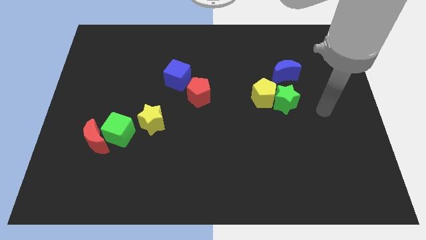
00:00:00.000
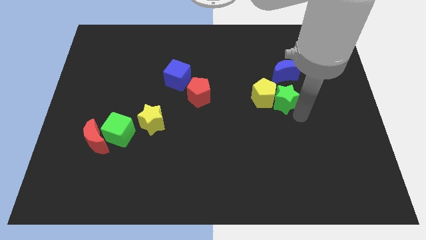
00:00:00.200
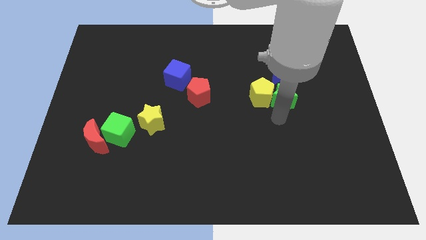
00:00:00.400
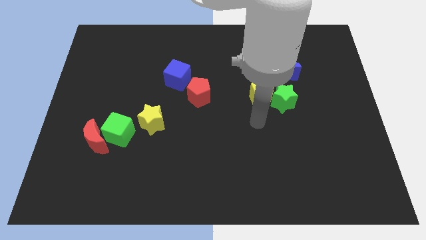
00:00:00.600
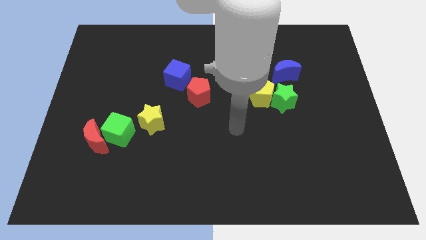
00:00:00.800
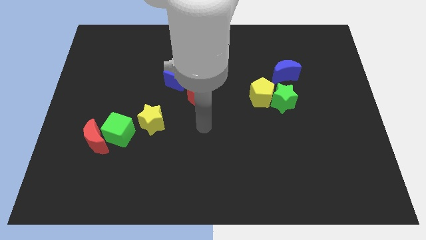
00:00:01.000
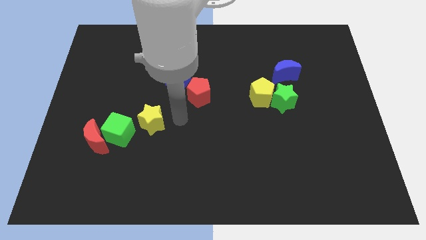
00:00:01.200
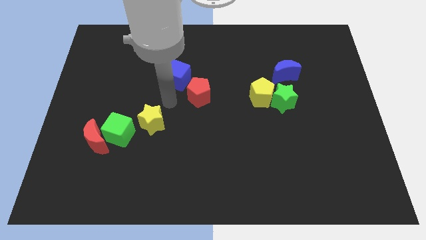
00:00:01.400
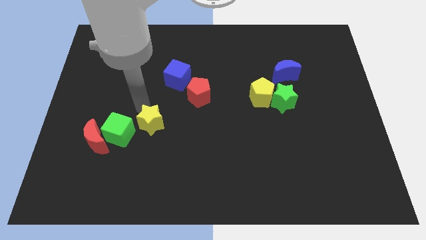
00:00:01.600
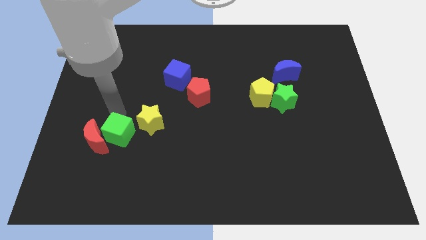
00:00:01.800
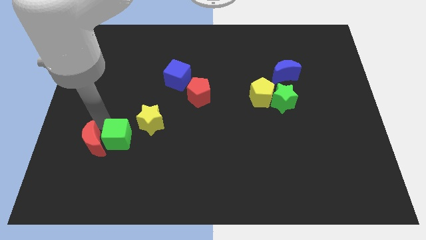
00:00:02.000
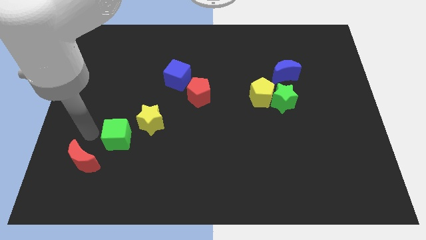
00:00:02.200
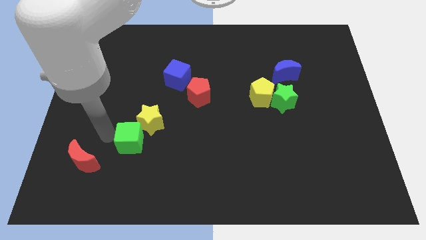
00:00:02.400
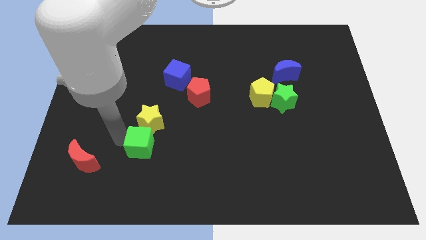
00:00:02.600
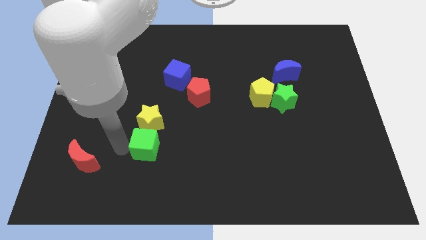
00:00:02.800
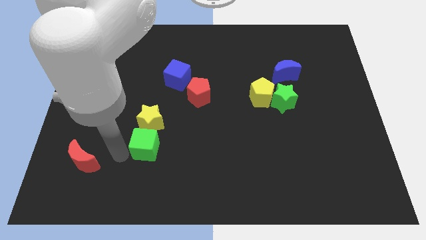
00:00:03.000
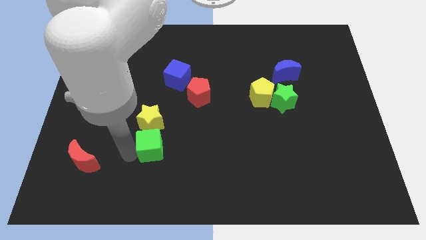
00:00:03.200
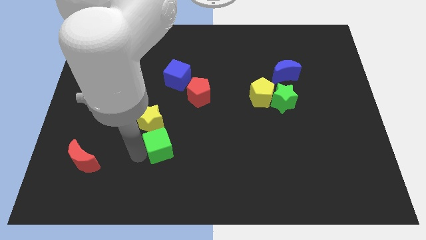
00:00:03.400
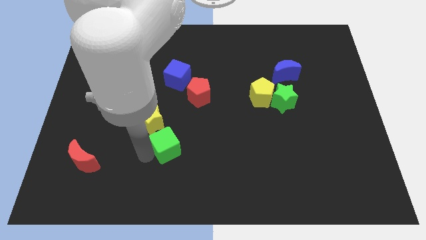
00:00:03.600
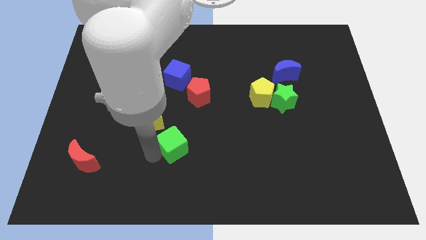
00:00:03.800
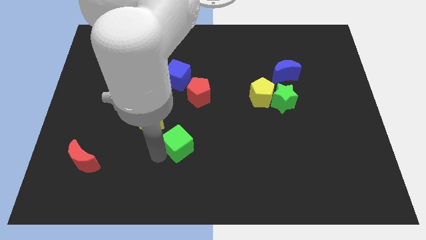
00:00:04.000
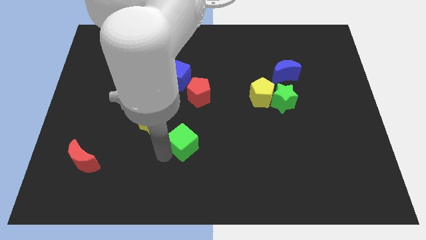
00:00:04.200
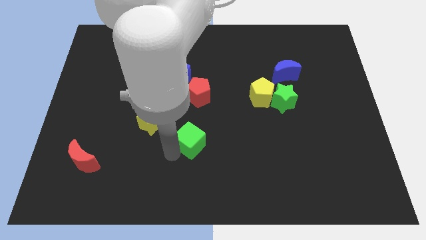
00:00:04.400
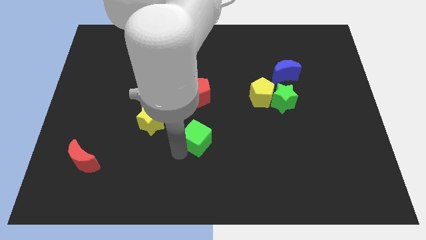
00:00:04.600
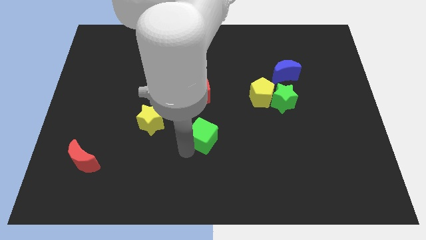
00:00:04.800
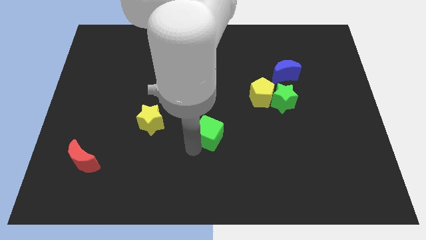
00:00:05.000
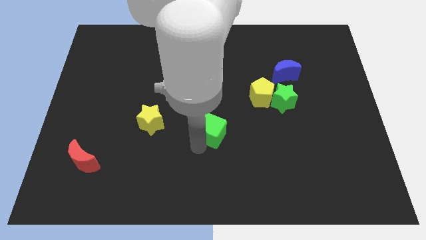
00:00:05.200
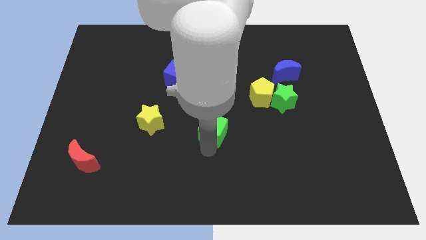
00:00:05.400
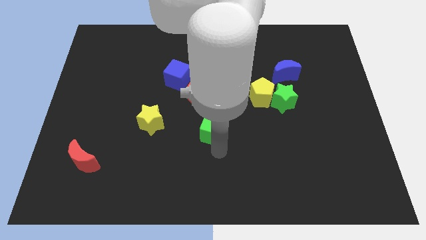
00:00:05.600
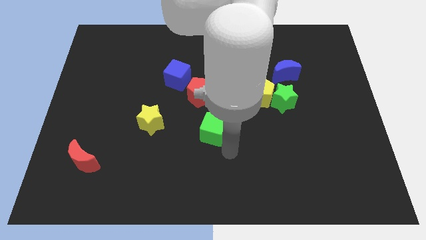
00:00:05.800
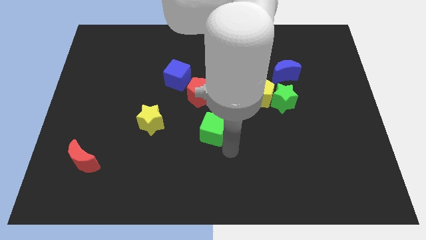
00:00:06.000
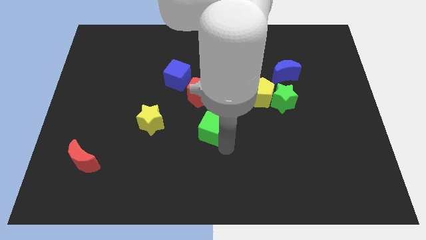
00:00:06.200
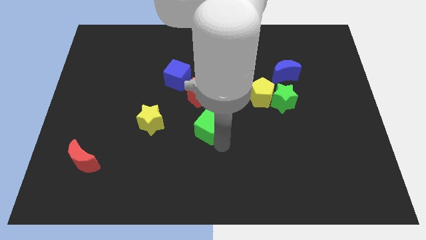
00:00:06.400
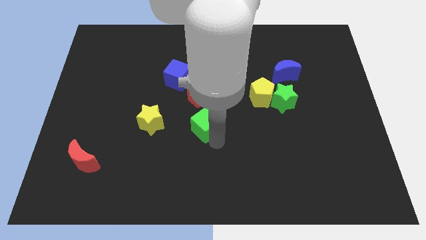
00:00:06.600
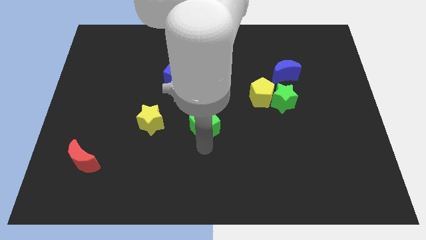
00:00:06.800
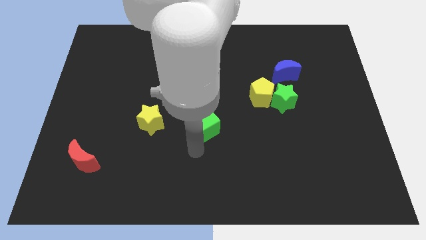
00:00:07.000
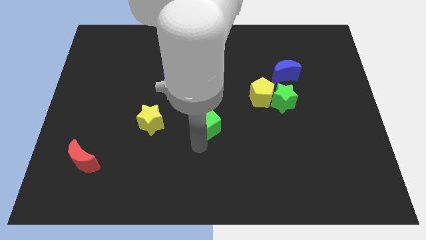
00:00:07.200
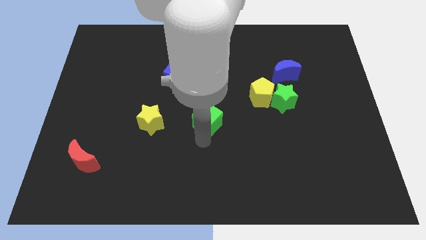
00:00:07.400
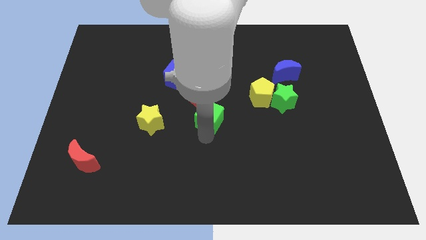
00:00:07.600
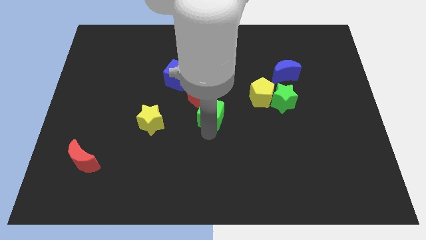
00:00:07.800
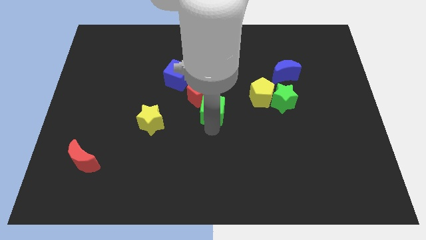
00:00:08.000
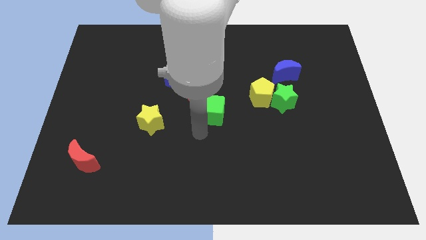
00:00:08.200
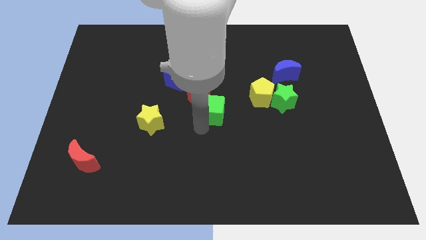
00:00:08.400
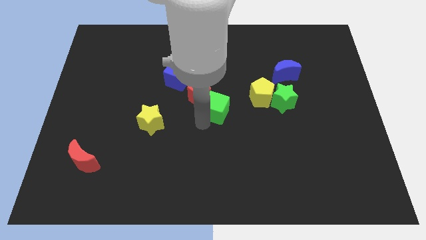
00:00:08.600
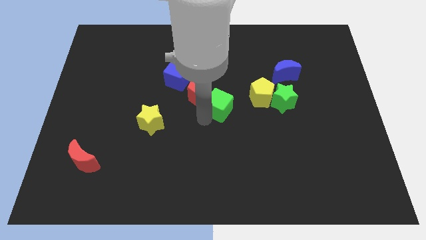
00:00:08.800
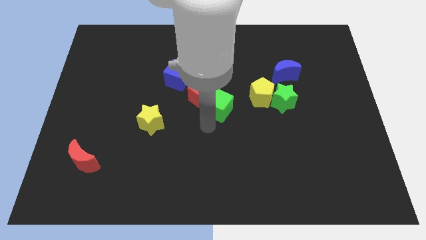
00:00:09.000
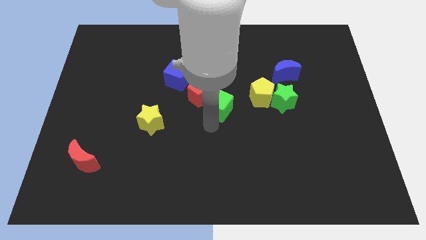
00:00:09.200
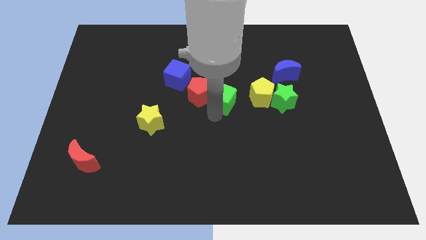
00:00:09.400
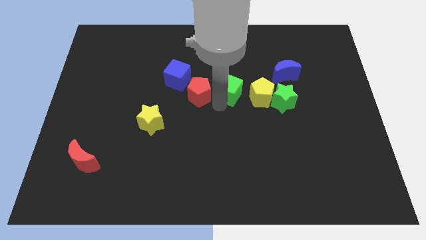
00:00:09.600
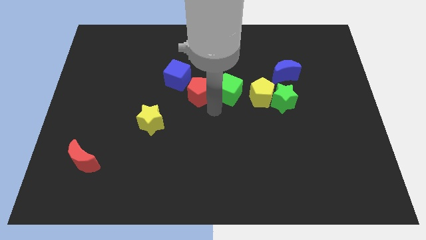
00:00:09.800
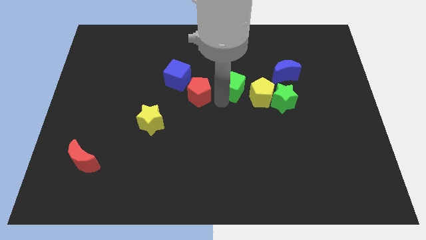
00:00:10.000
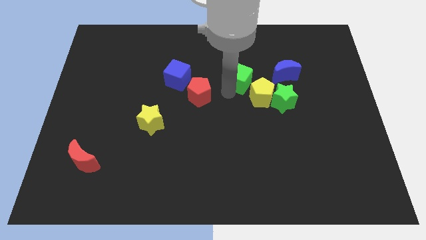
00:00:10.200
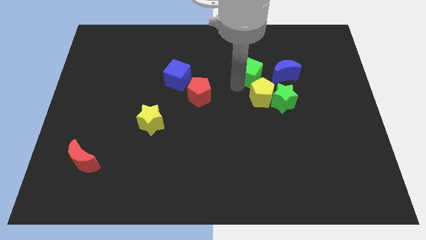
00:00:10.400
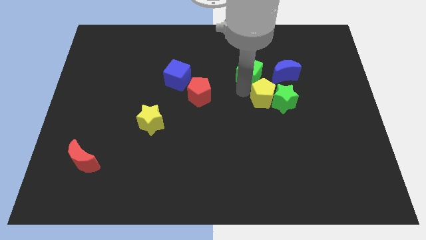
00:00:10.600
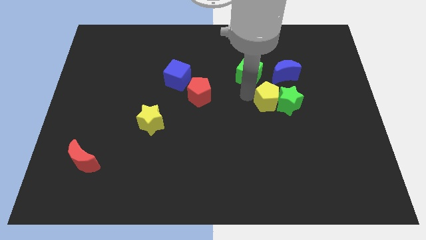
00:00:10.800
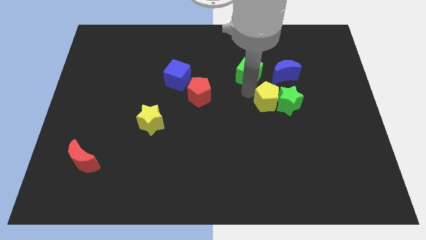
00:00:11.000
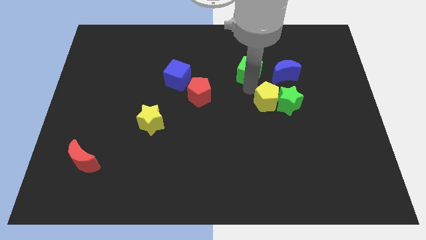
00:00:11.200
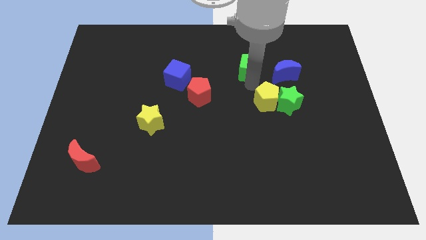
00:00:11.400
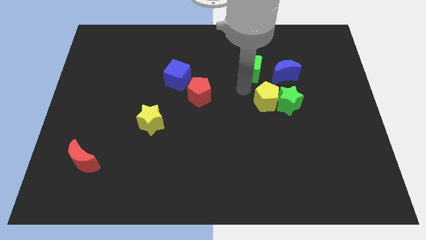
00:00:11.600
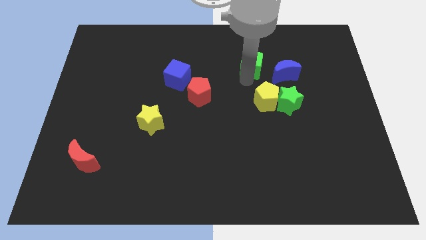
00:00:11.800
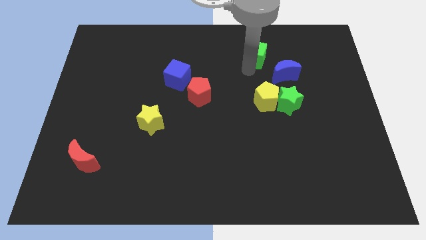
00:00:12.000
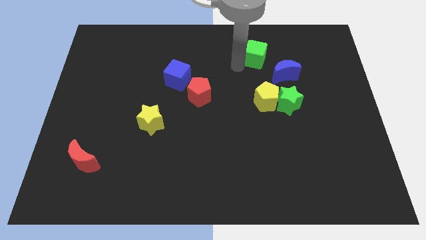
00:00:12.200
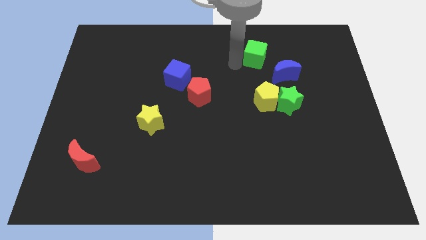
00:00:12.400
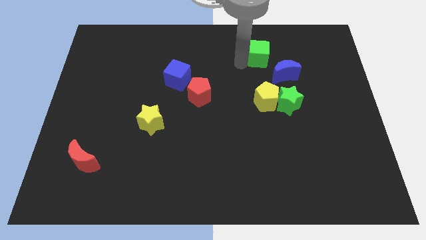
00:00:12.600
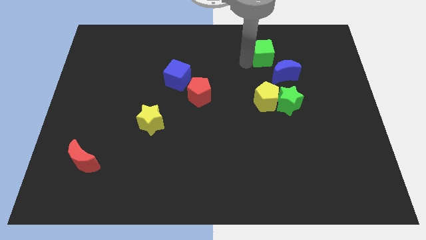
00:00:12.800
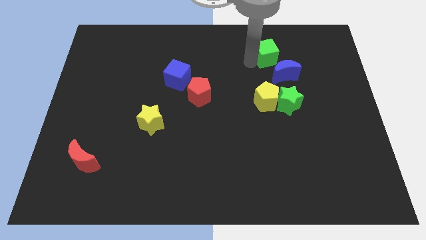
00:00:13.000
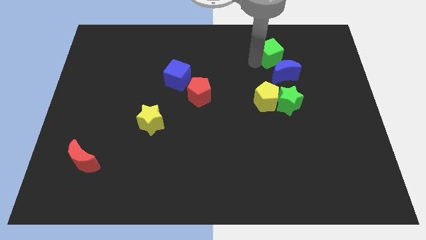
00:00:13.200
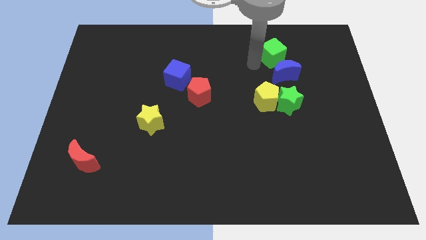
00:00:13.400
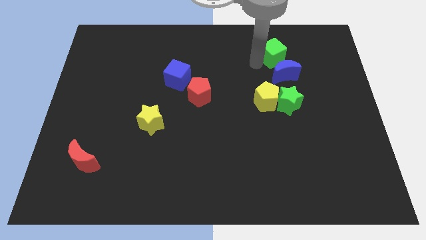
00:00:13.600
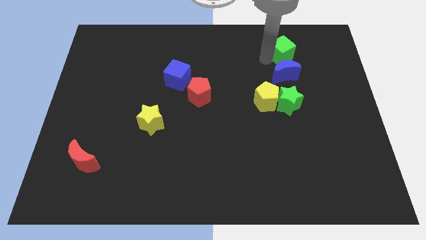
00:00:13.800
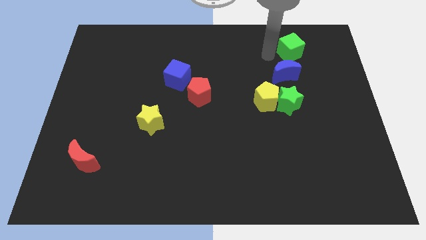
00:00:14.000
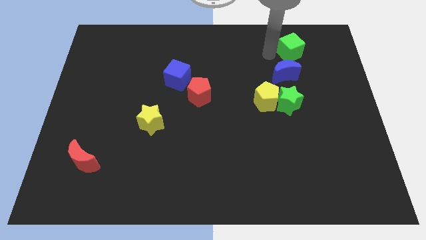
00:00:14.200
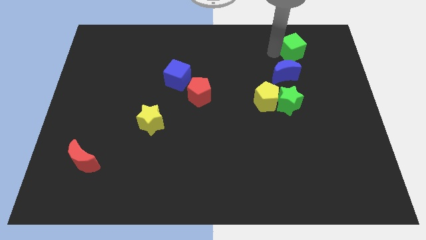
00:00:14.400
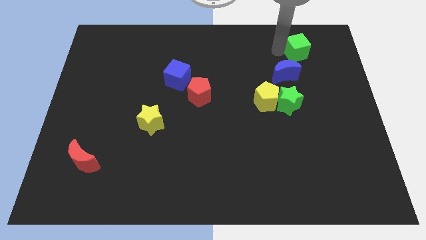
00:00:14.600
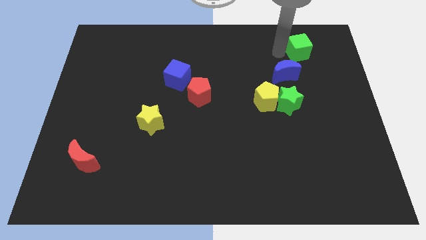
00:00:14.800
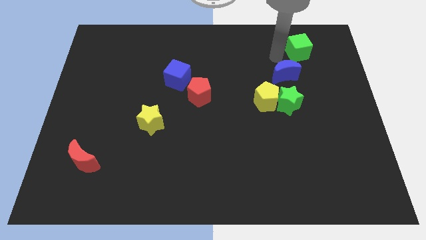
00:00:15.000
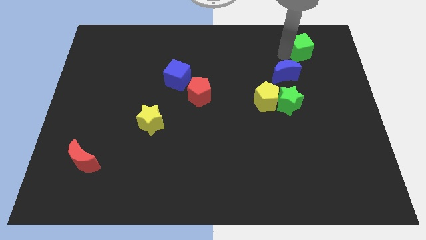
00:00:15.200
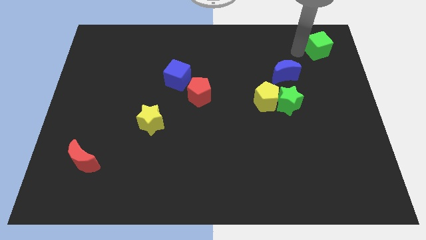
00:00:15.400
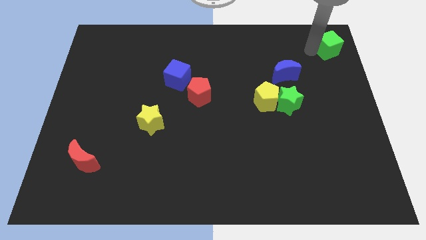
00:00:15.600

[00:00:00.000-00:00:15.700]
move the green cube to the top right of the board
